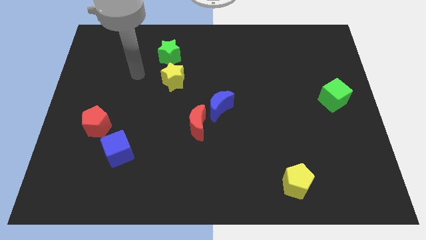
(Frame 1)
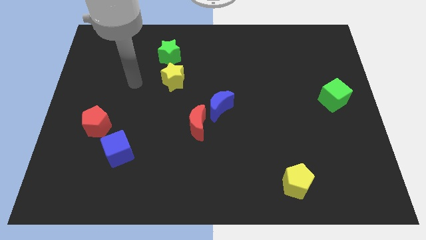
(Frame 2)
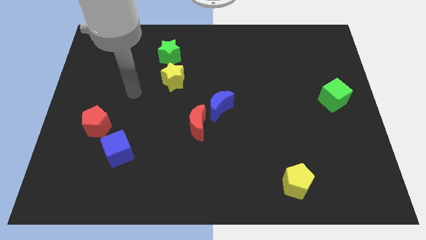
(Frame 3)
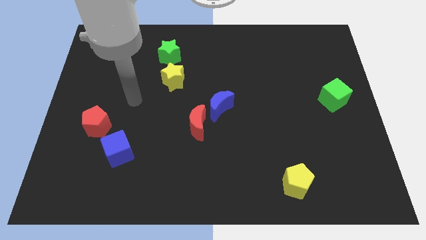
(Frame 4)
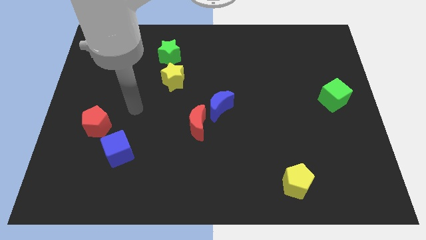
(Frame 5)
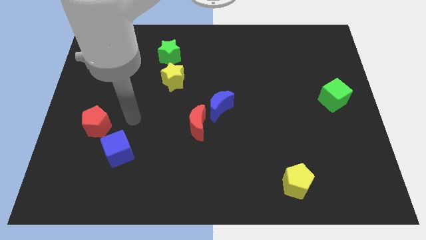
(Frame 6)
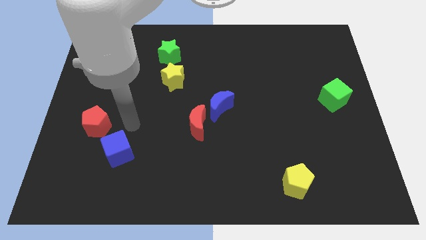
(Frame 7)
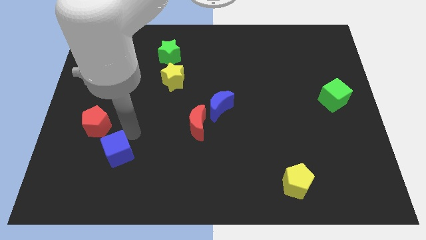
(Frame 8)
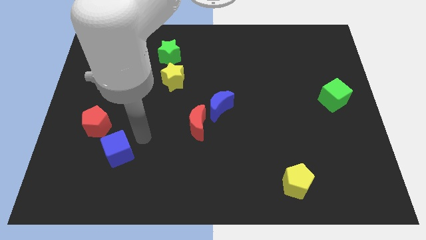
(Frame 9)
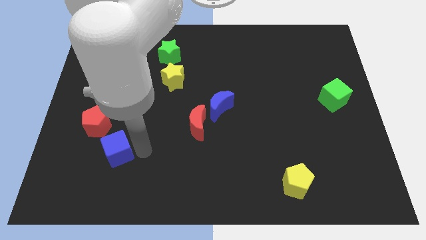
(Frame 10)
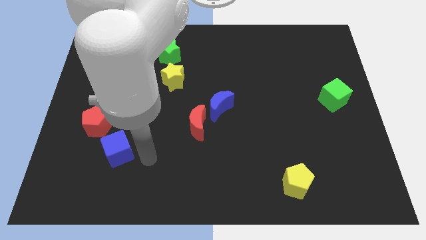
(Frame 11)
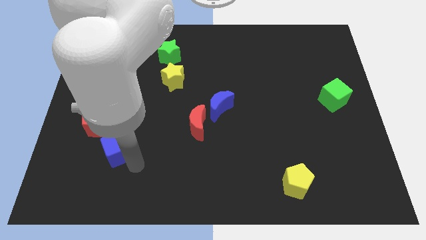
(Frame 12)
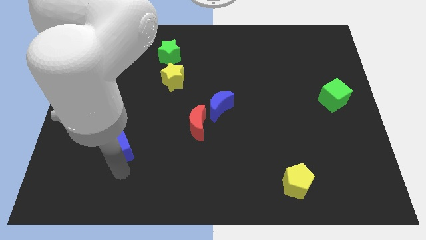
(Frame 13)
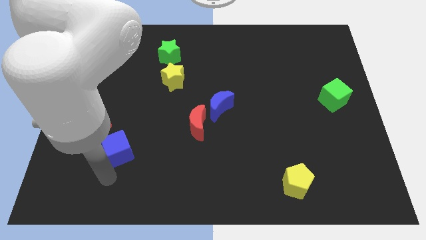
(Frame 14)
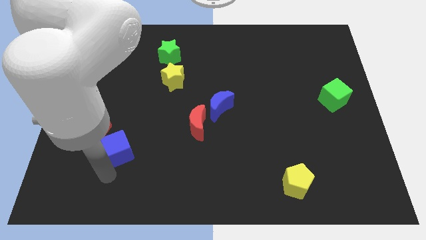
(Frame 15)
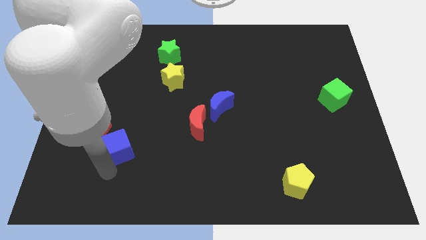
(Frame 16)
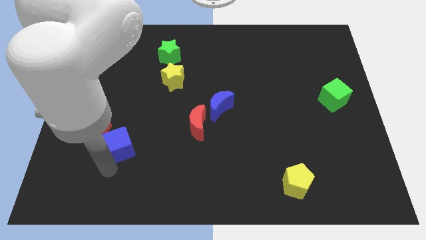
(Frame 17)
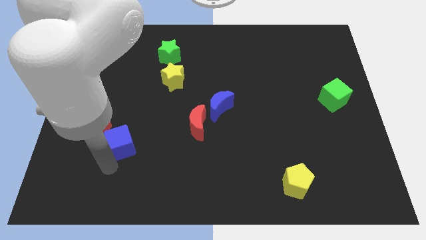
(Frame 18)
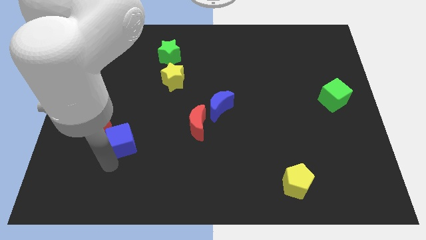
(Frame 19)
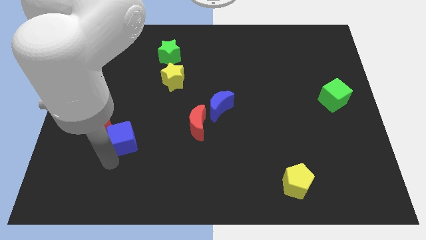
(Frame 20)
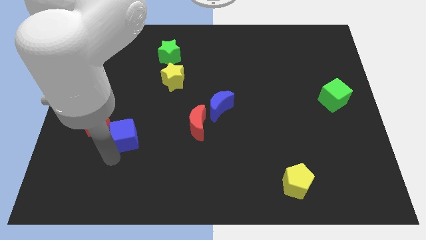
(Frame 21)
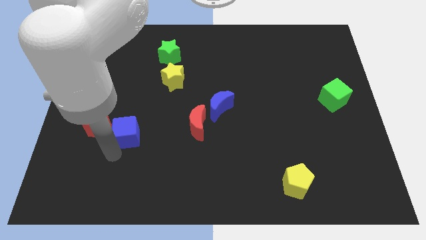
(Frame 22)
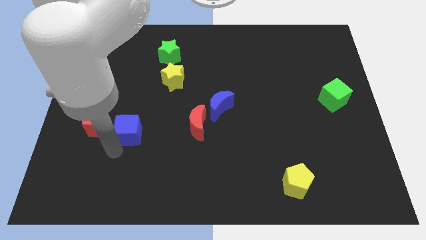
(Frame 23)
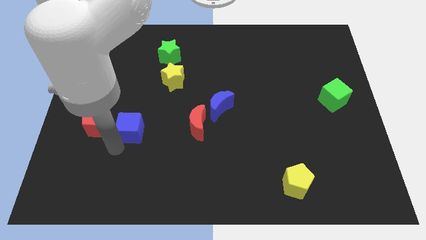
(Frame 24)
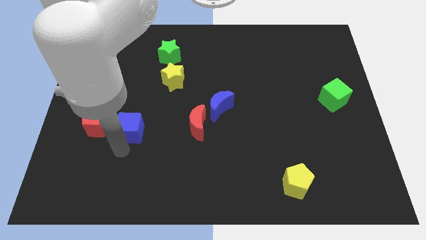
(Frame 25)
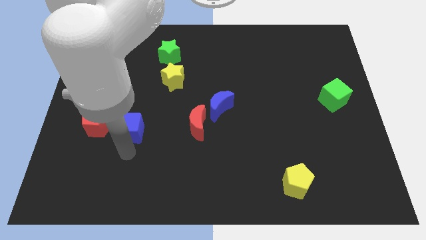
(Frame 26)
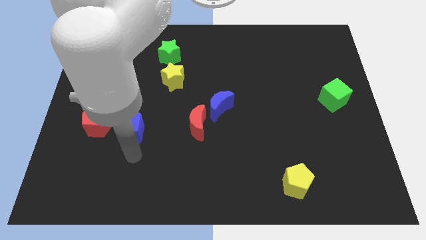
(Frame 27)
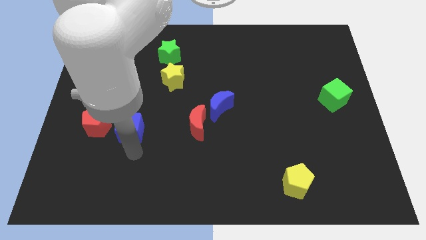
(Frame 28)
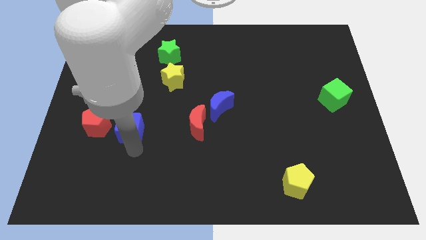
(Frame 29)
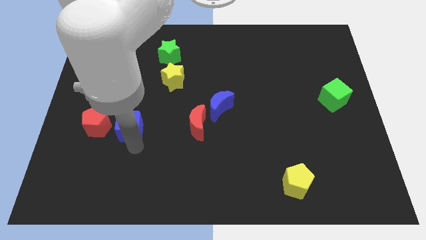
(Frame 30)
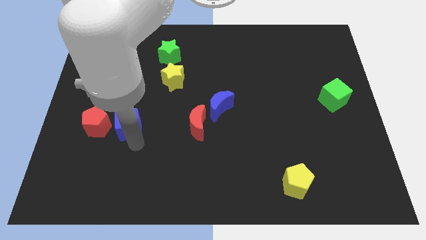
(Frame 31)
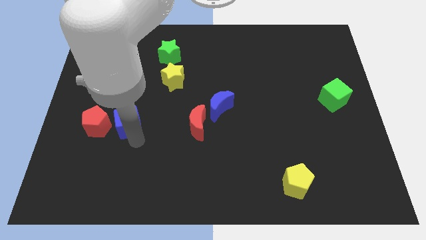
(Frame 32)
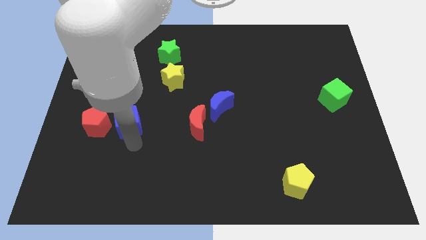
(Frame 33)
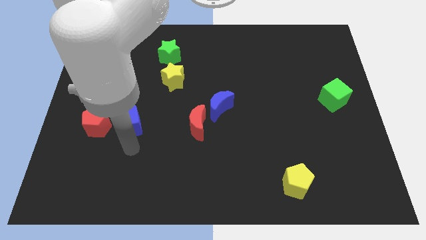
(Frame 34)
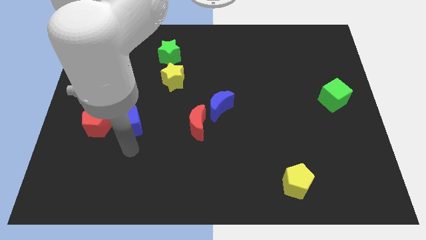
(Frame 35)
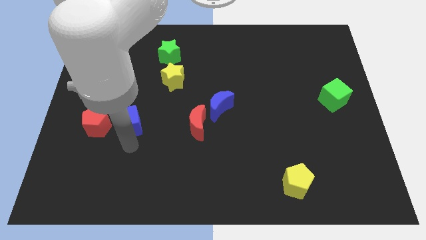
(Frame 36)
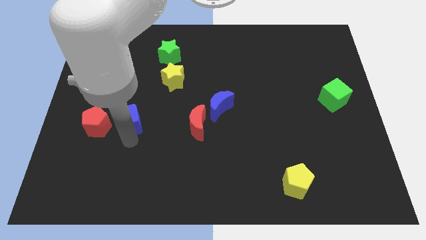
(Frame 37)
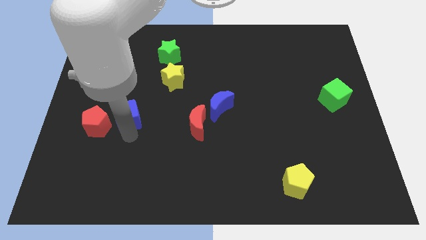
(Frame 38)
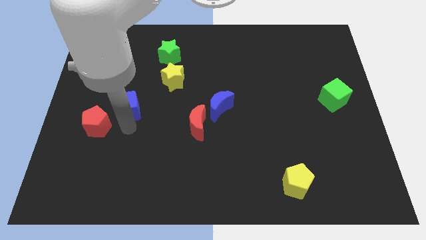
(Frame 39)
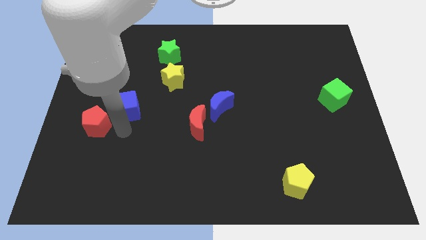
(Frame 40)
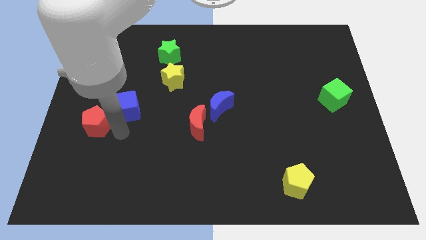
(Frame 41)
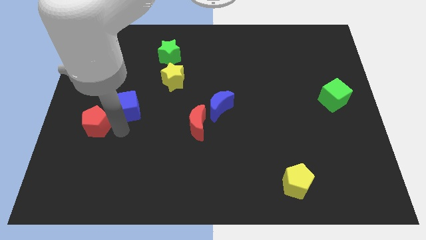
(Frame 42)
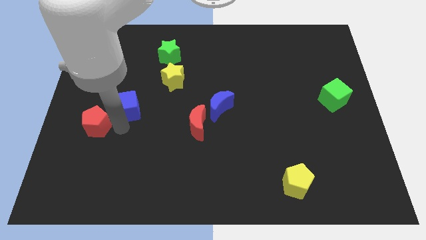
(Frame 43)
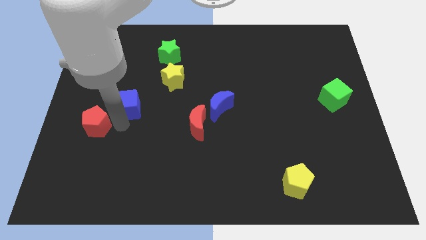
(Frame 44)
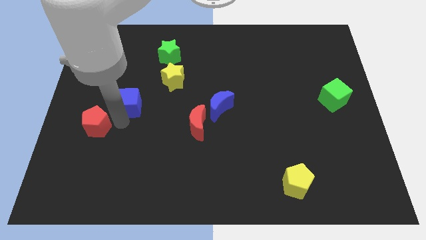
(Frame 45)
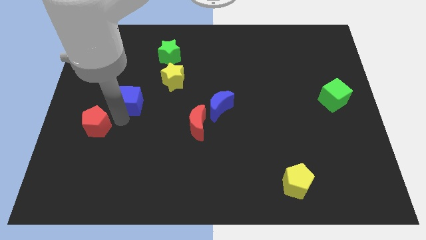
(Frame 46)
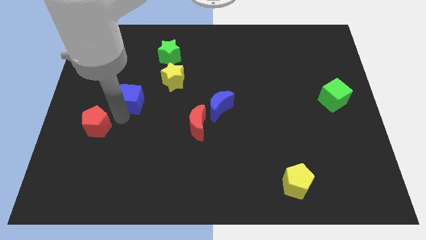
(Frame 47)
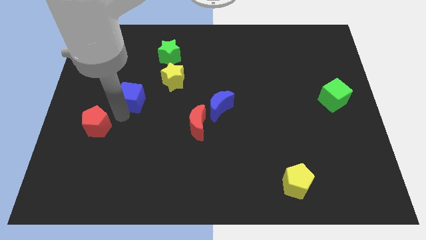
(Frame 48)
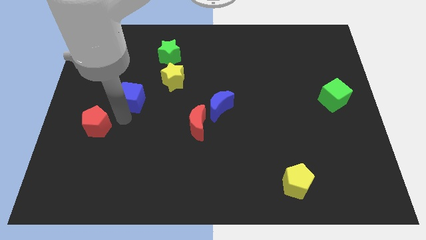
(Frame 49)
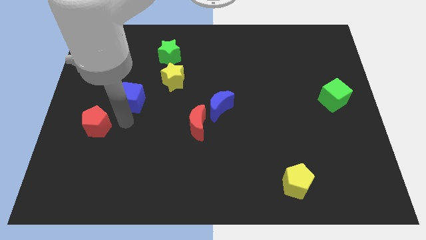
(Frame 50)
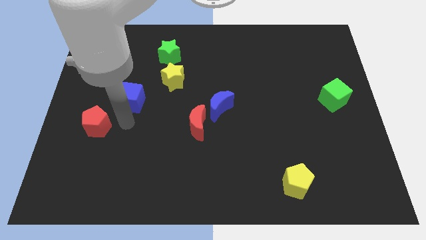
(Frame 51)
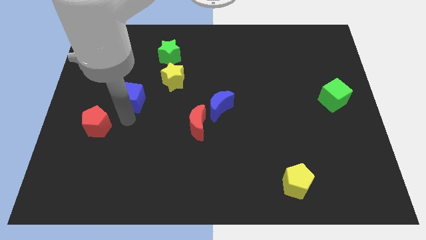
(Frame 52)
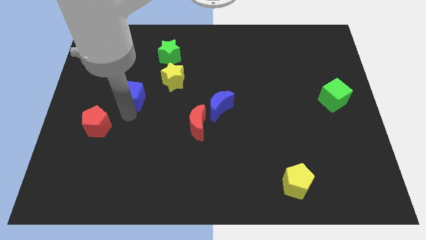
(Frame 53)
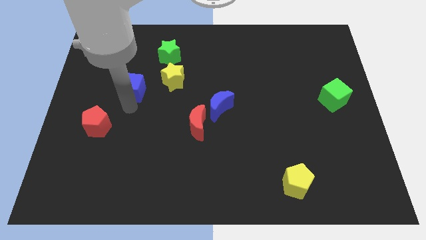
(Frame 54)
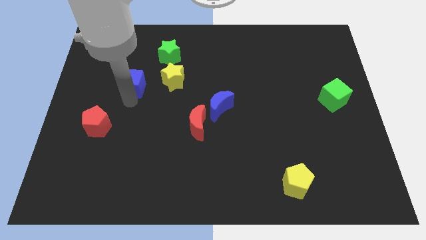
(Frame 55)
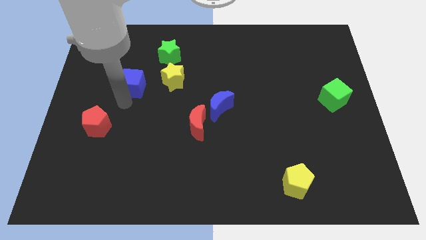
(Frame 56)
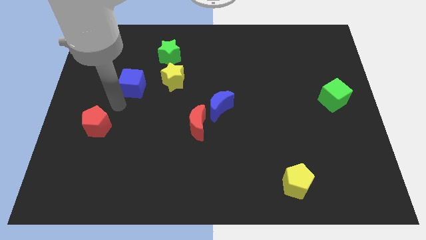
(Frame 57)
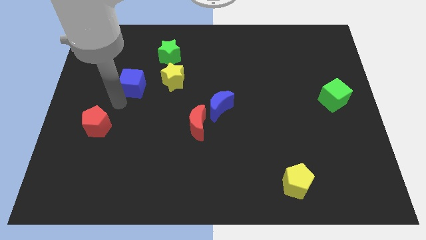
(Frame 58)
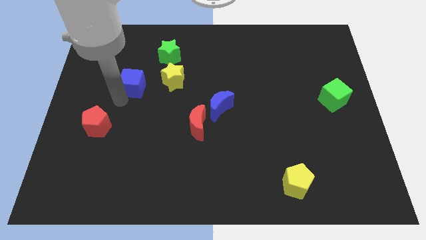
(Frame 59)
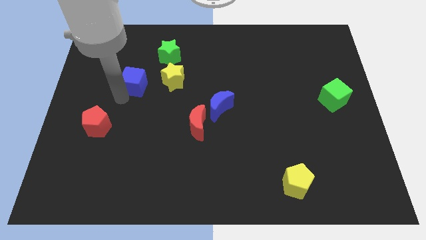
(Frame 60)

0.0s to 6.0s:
slide the blue cube to the bottom left side of the green star

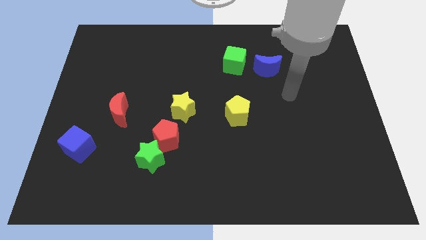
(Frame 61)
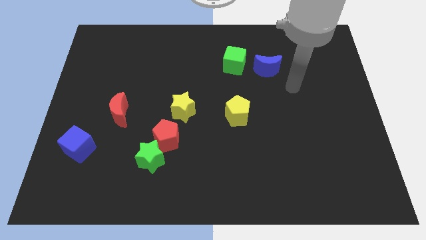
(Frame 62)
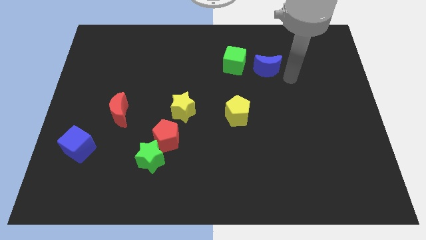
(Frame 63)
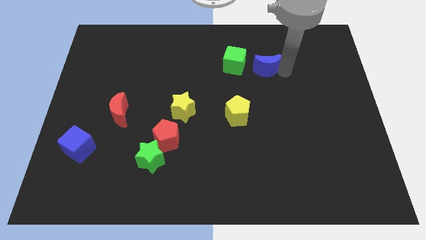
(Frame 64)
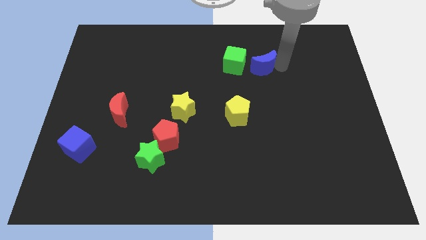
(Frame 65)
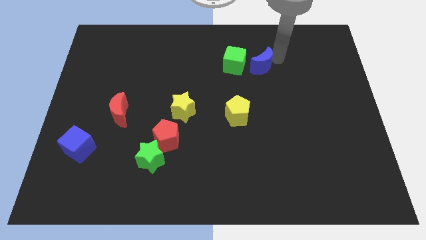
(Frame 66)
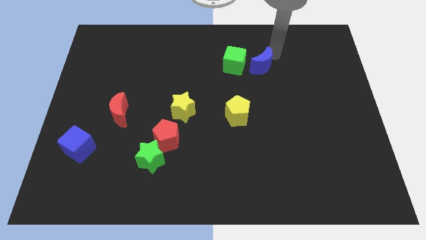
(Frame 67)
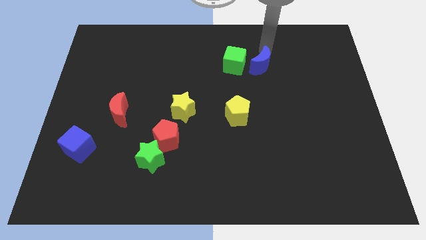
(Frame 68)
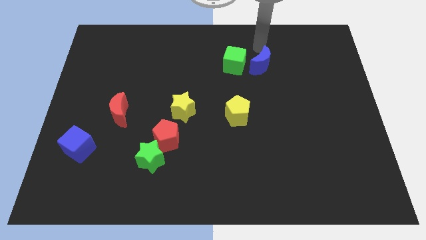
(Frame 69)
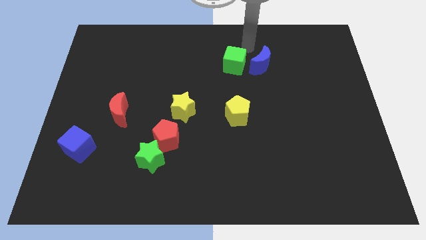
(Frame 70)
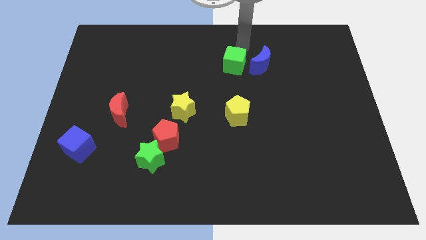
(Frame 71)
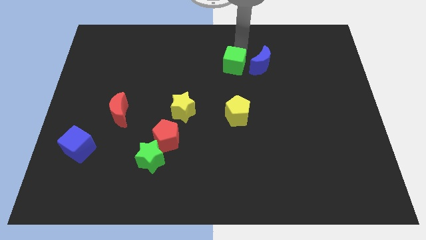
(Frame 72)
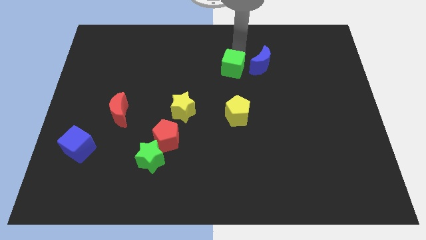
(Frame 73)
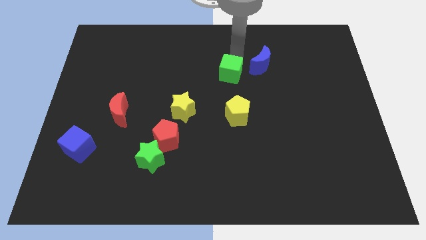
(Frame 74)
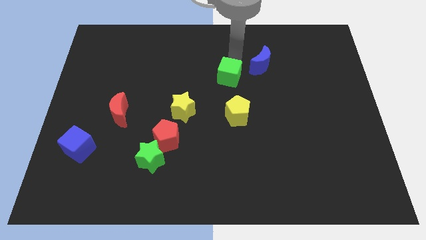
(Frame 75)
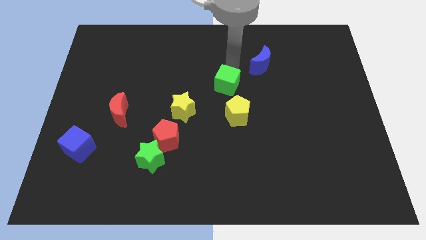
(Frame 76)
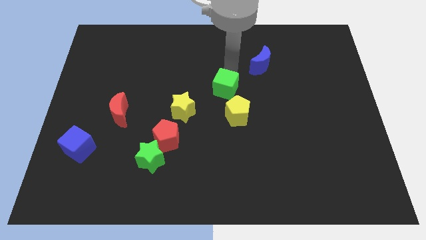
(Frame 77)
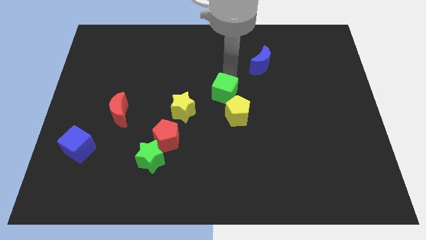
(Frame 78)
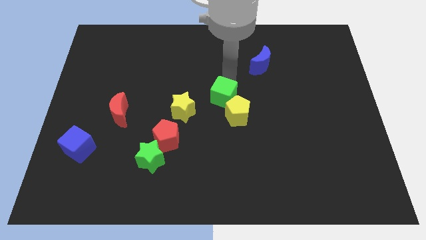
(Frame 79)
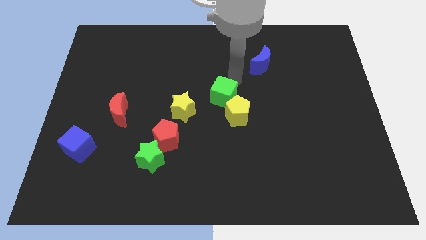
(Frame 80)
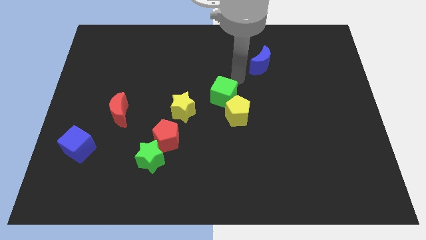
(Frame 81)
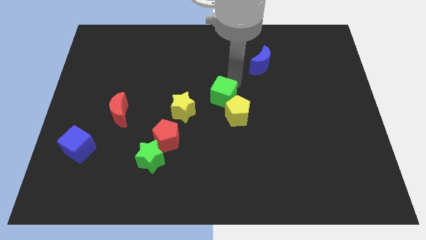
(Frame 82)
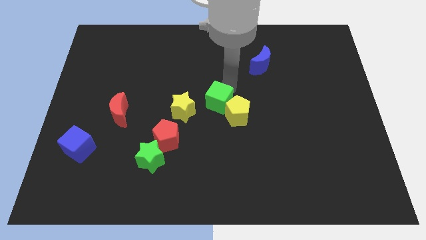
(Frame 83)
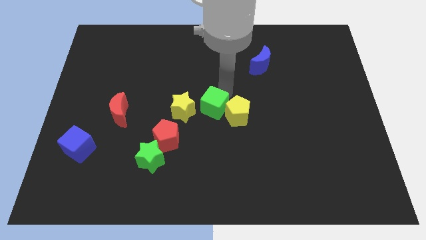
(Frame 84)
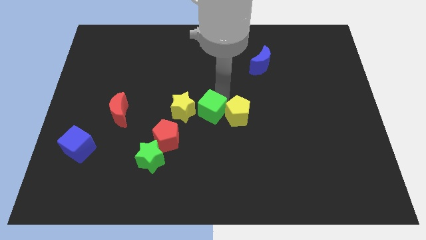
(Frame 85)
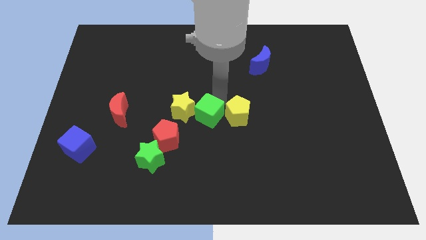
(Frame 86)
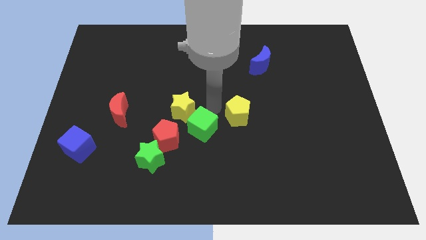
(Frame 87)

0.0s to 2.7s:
push the green cube below the yellow star
